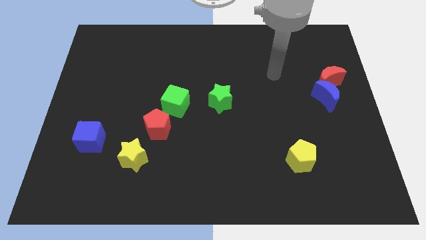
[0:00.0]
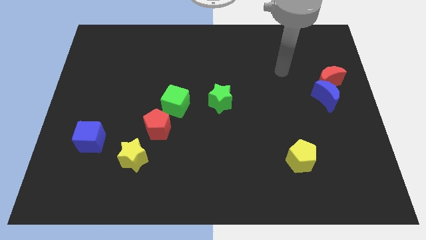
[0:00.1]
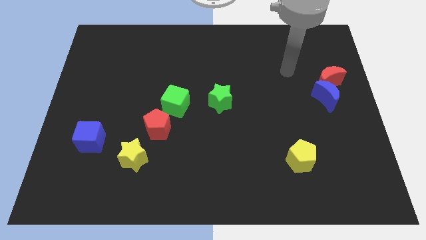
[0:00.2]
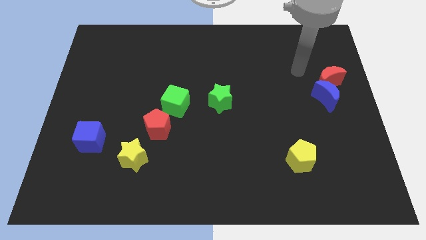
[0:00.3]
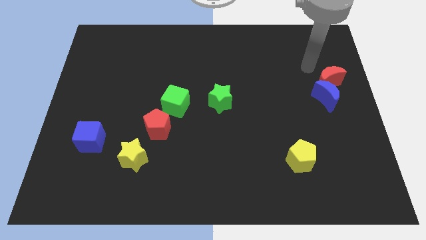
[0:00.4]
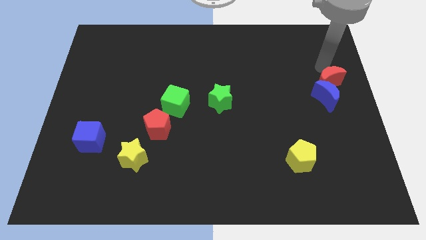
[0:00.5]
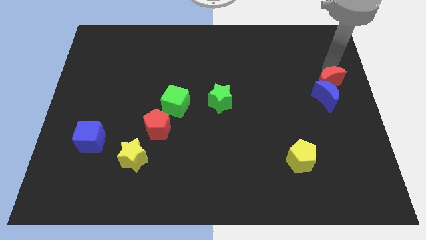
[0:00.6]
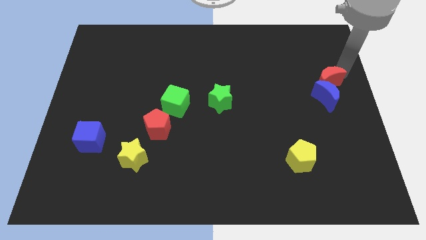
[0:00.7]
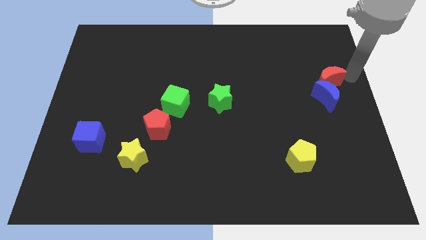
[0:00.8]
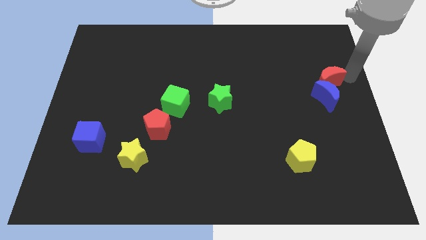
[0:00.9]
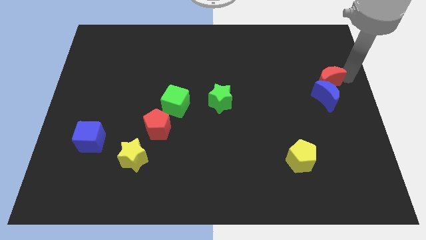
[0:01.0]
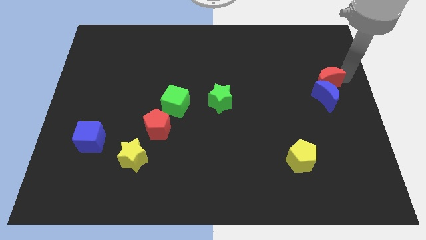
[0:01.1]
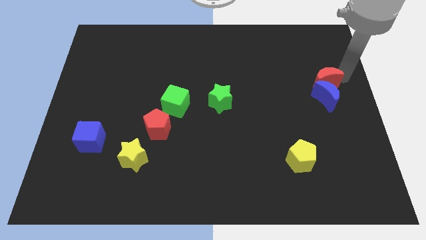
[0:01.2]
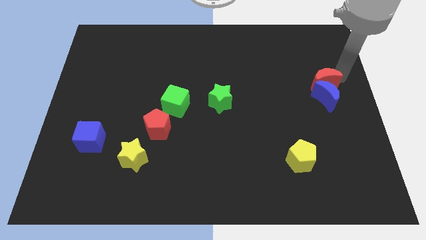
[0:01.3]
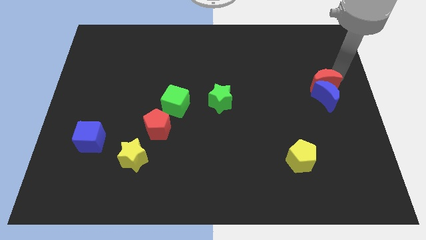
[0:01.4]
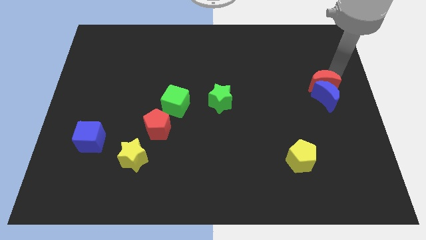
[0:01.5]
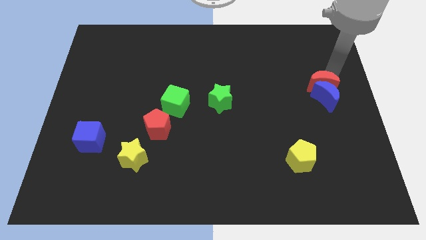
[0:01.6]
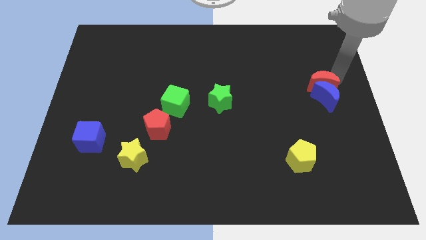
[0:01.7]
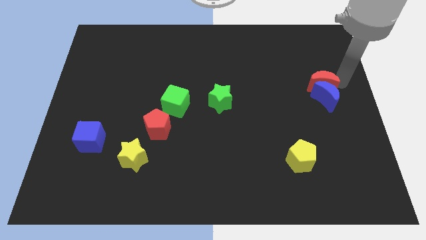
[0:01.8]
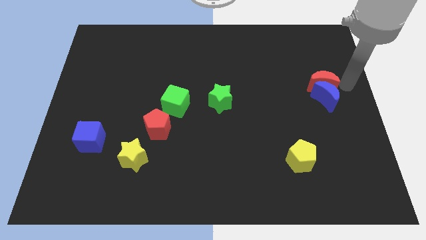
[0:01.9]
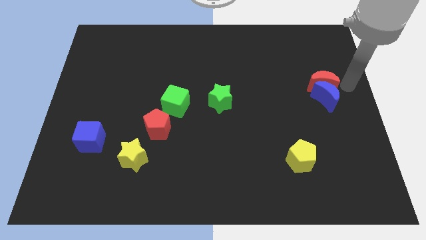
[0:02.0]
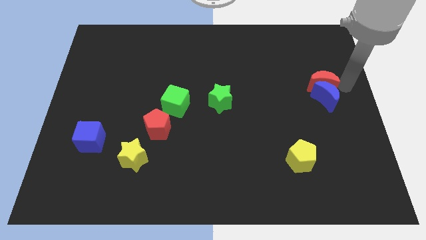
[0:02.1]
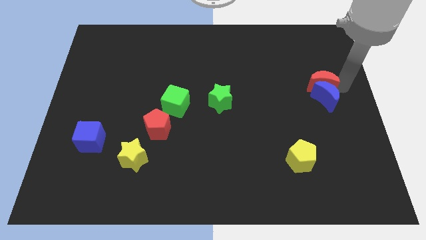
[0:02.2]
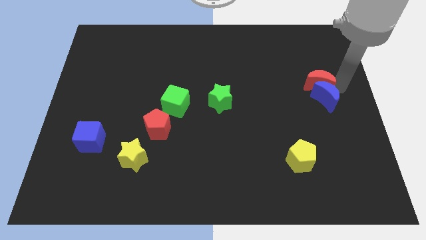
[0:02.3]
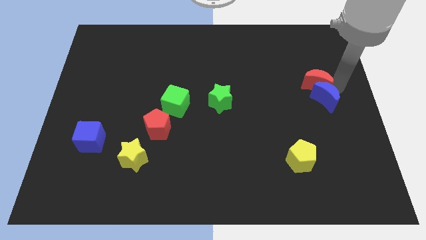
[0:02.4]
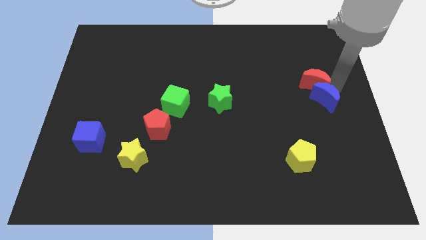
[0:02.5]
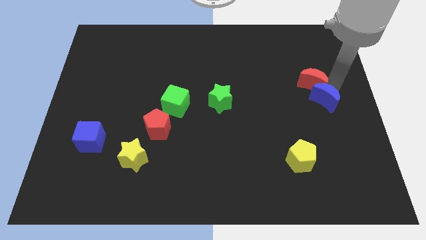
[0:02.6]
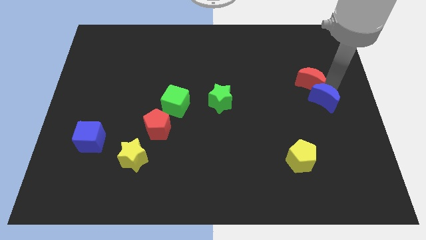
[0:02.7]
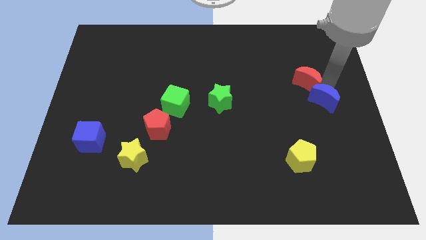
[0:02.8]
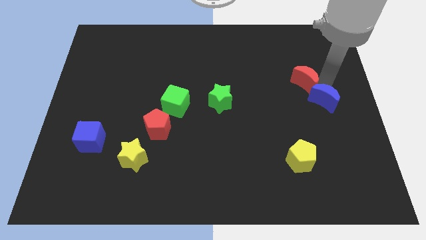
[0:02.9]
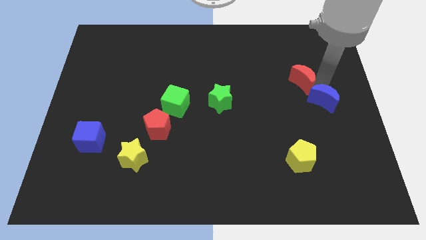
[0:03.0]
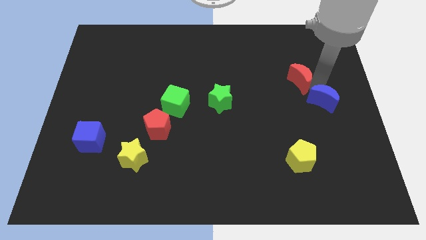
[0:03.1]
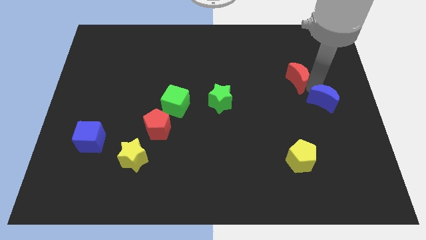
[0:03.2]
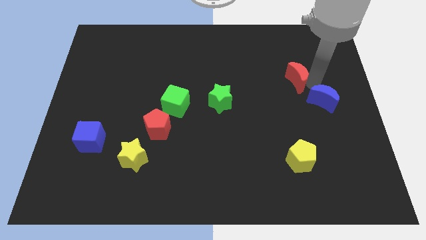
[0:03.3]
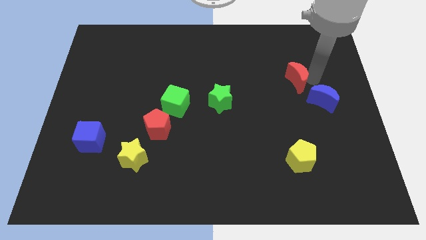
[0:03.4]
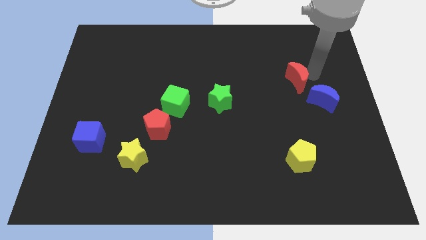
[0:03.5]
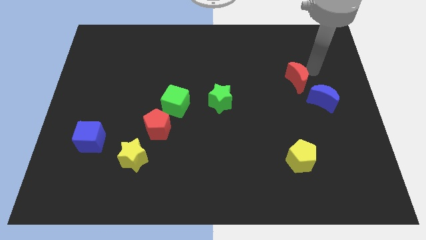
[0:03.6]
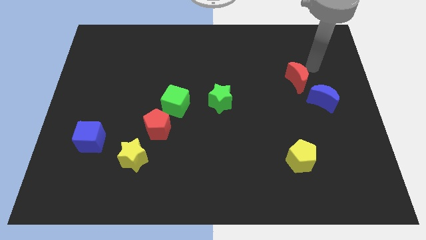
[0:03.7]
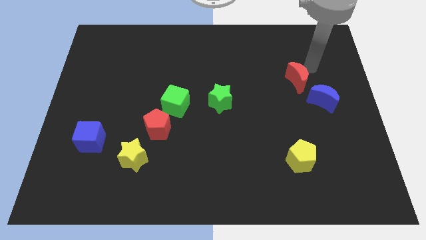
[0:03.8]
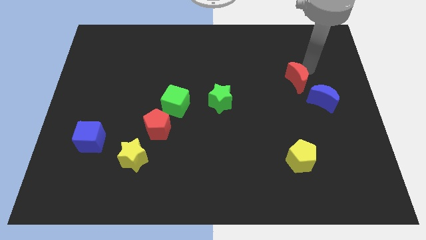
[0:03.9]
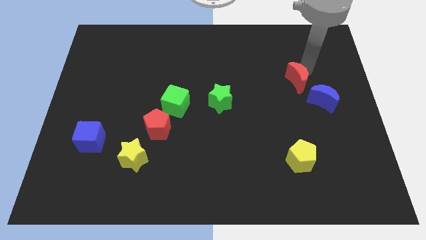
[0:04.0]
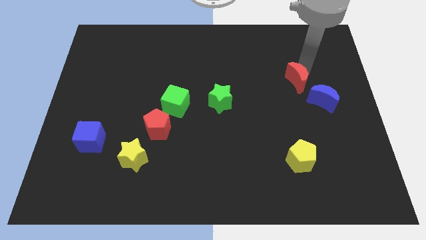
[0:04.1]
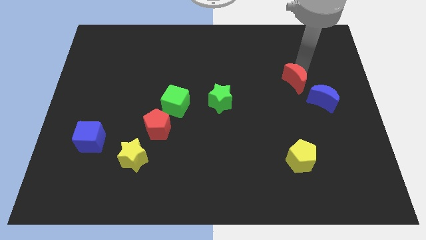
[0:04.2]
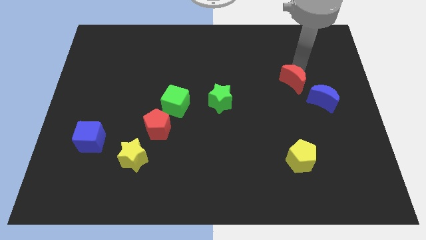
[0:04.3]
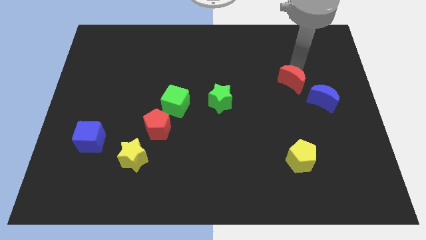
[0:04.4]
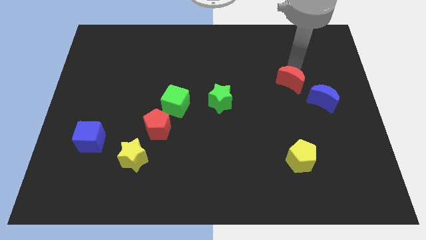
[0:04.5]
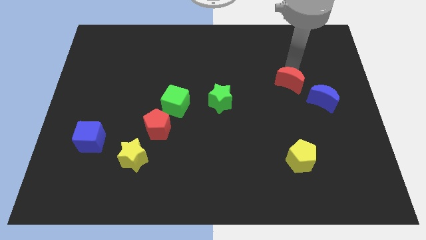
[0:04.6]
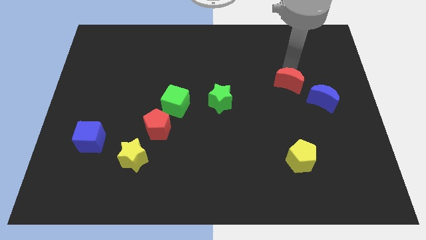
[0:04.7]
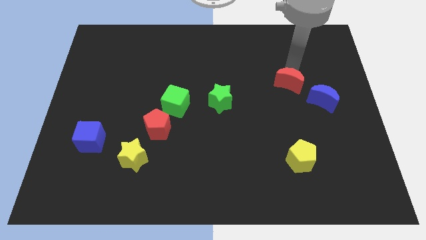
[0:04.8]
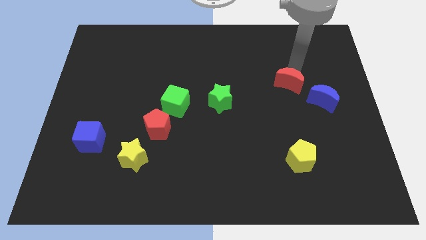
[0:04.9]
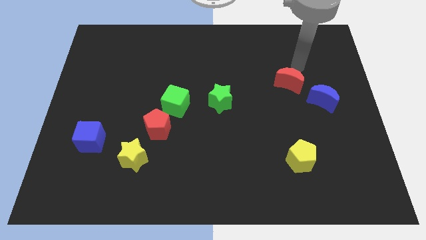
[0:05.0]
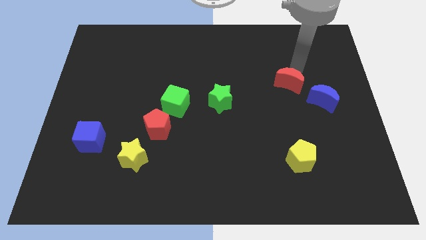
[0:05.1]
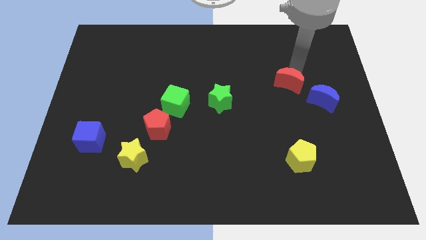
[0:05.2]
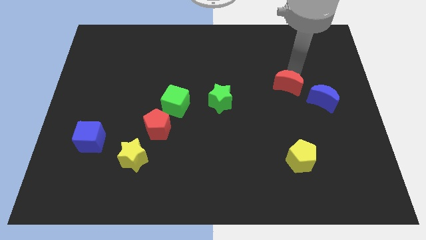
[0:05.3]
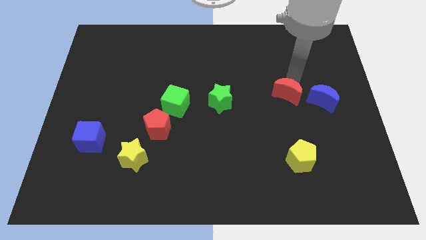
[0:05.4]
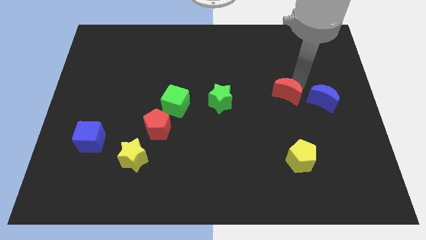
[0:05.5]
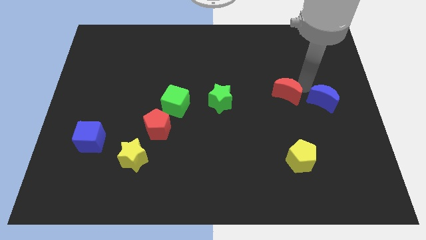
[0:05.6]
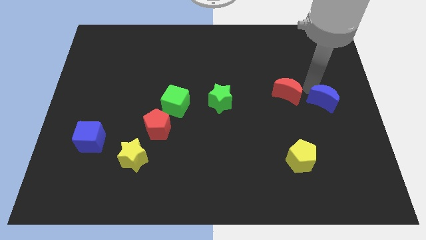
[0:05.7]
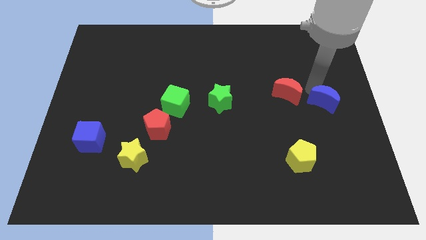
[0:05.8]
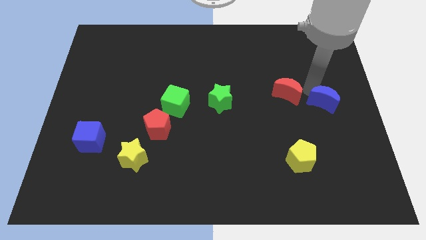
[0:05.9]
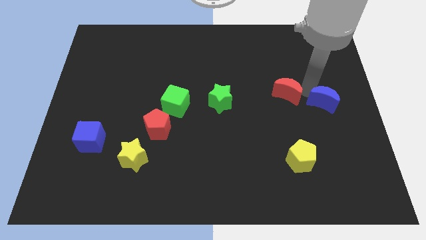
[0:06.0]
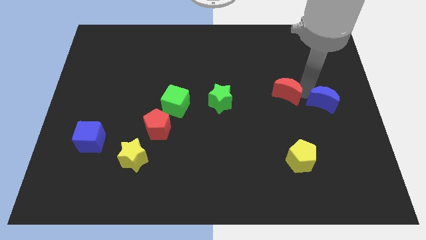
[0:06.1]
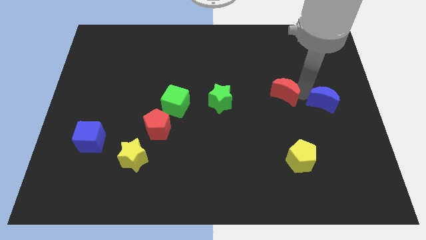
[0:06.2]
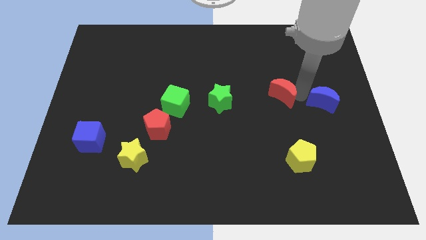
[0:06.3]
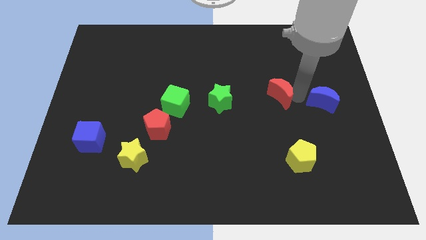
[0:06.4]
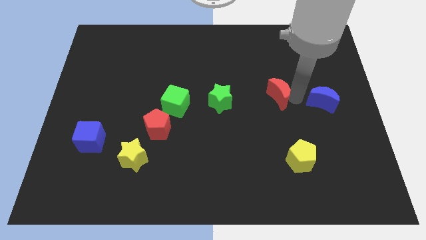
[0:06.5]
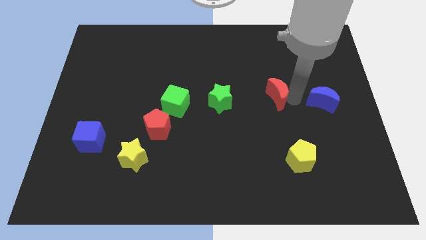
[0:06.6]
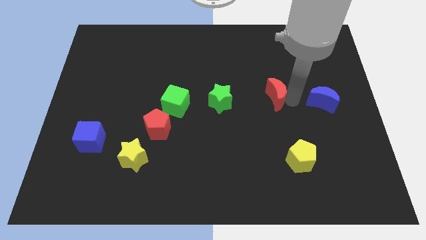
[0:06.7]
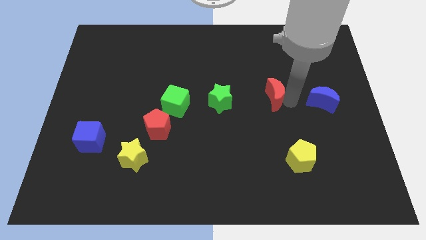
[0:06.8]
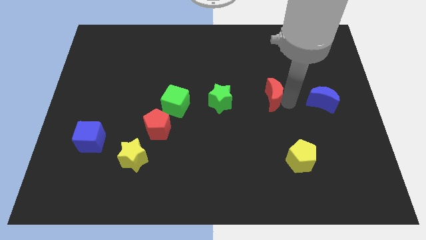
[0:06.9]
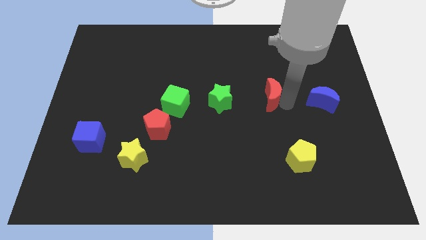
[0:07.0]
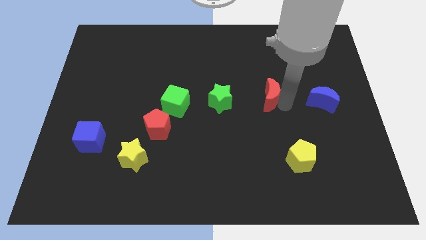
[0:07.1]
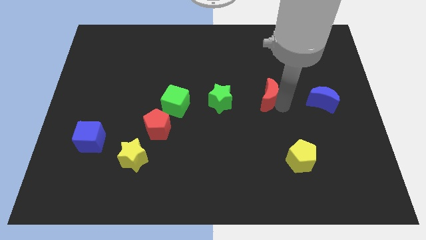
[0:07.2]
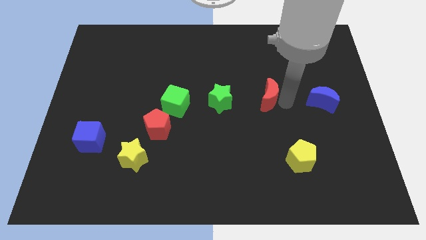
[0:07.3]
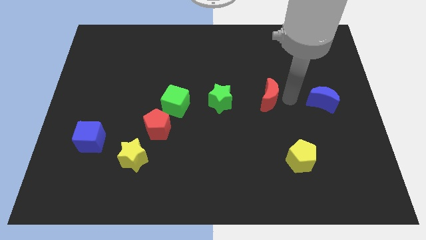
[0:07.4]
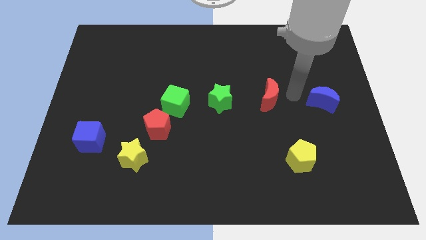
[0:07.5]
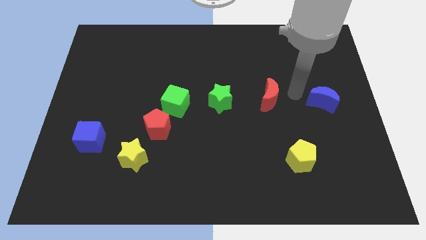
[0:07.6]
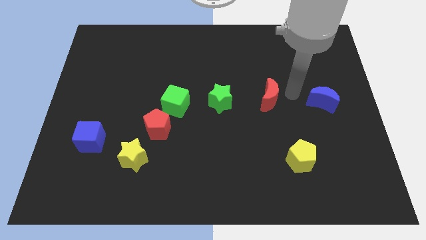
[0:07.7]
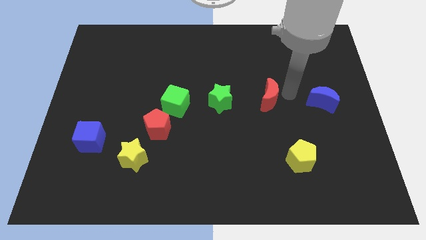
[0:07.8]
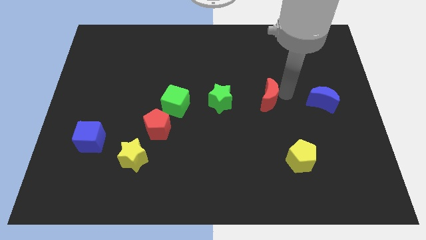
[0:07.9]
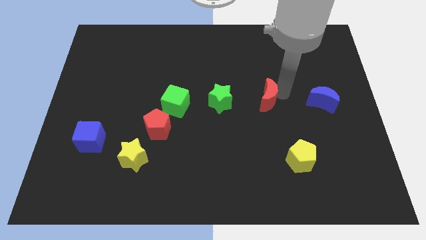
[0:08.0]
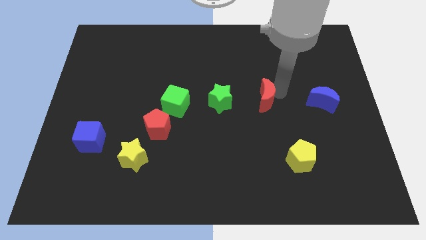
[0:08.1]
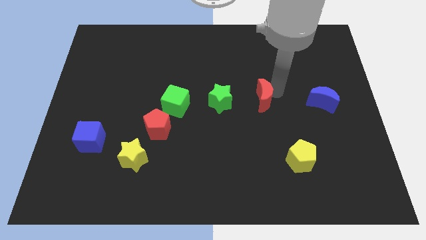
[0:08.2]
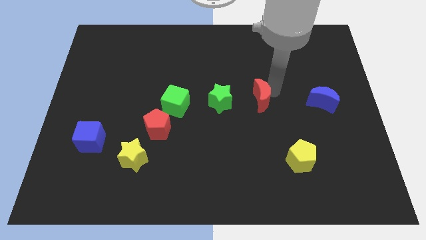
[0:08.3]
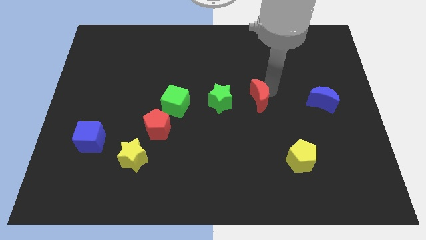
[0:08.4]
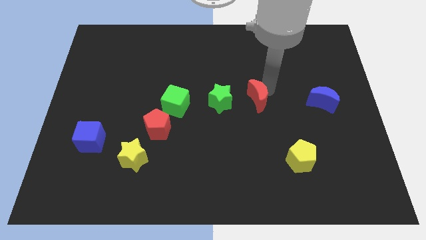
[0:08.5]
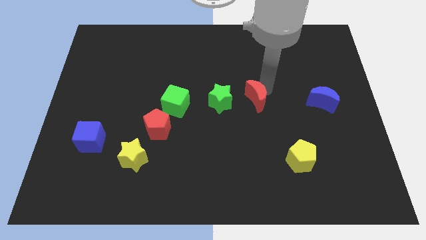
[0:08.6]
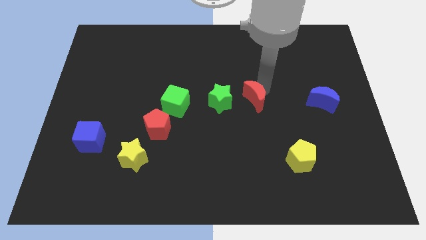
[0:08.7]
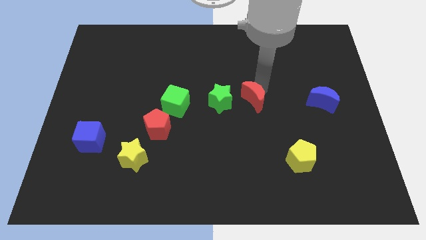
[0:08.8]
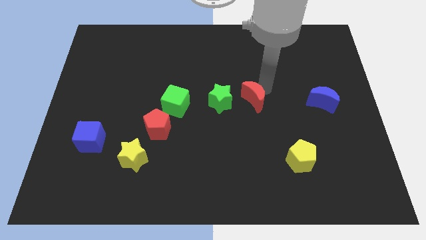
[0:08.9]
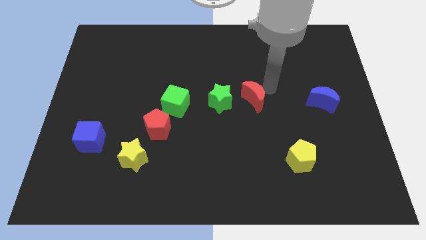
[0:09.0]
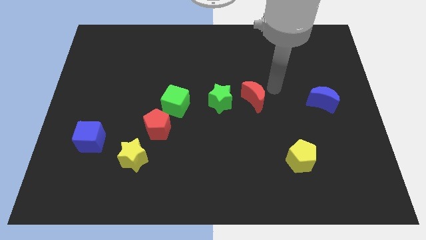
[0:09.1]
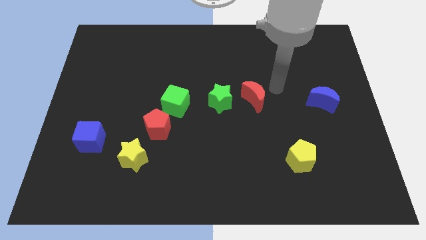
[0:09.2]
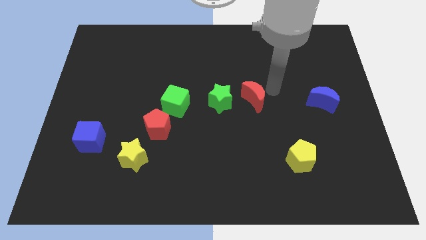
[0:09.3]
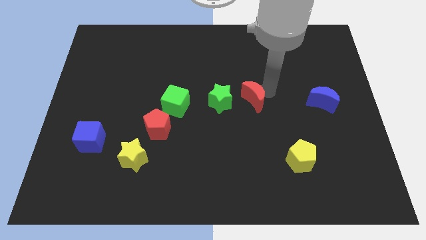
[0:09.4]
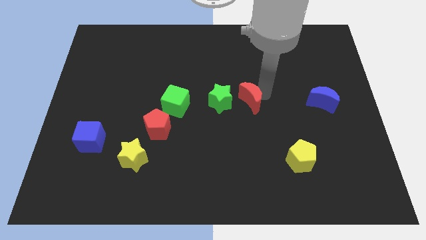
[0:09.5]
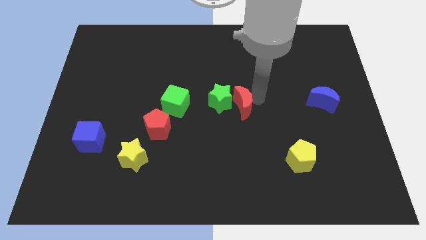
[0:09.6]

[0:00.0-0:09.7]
slide the red moon to the right of the green cube
